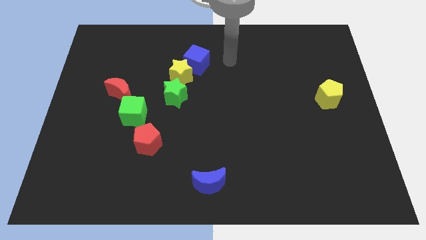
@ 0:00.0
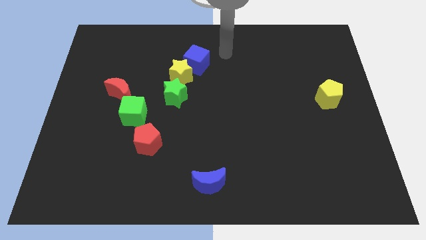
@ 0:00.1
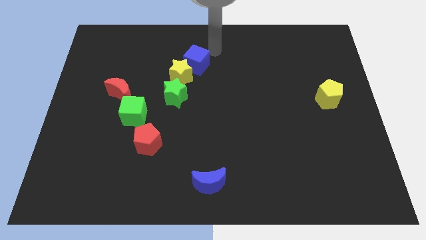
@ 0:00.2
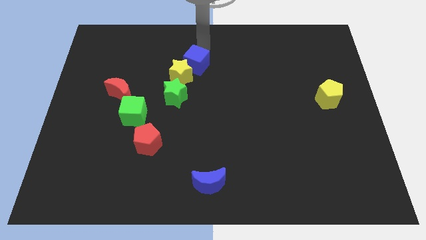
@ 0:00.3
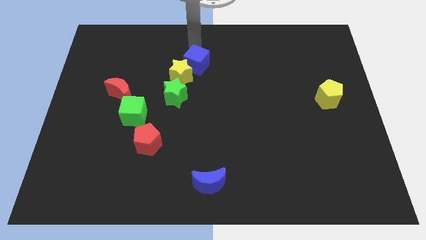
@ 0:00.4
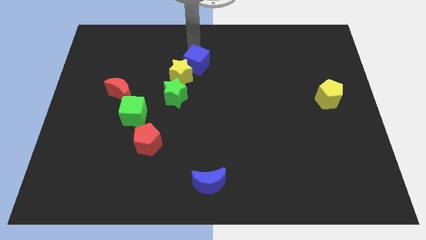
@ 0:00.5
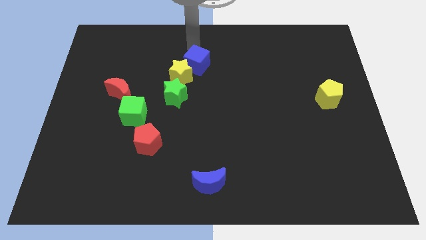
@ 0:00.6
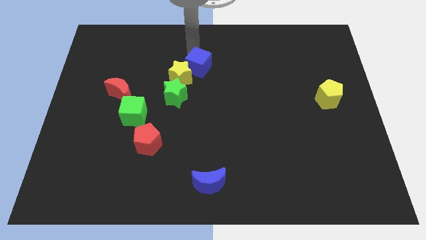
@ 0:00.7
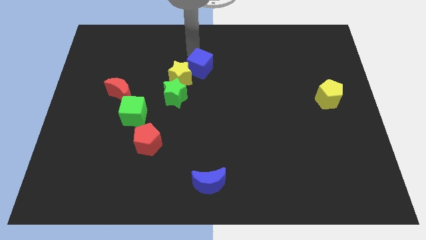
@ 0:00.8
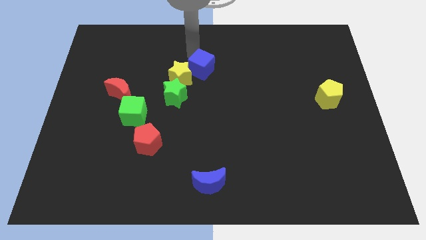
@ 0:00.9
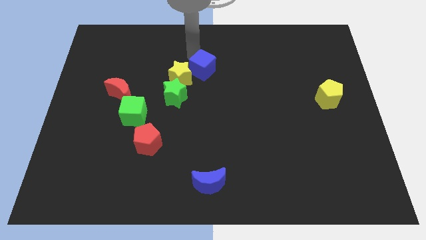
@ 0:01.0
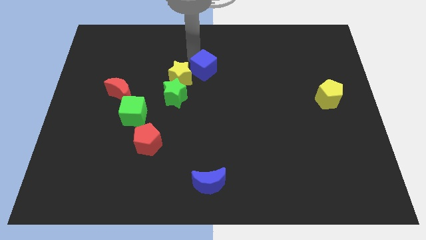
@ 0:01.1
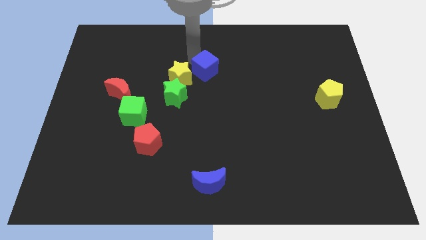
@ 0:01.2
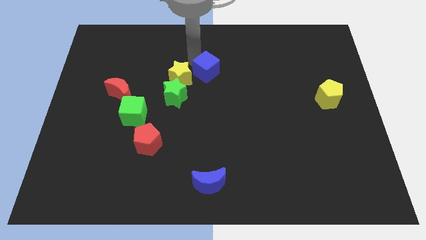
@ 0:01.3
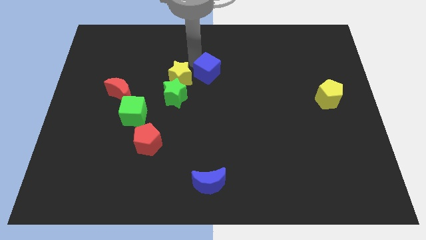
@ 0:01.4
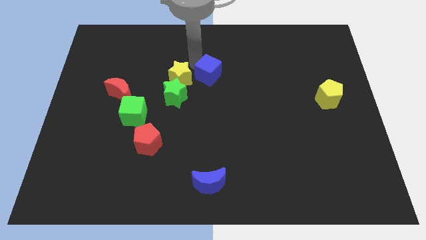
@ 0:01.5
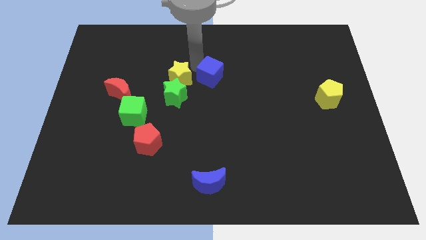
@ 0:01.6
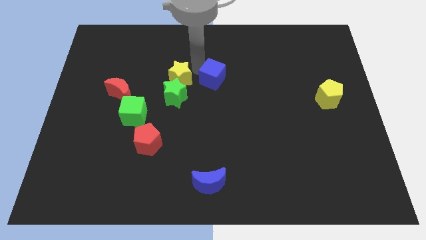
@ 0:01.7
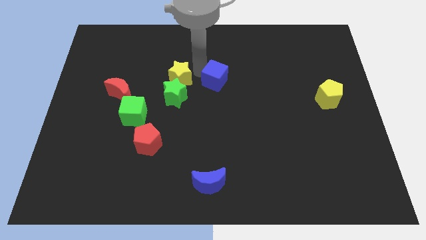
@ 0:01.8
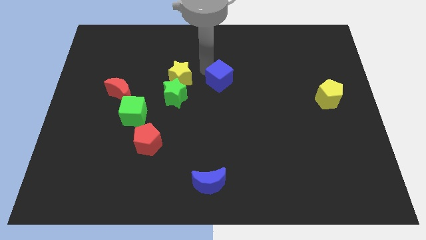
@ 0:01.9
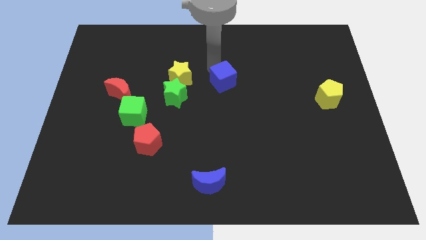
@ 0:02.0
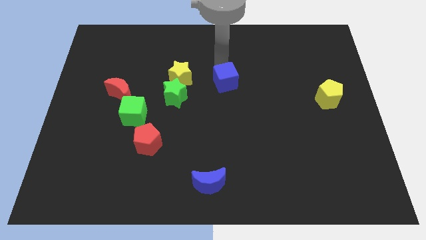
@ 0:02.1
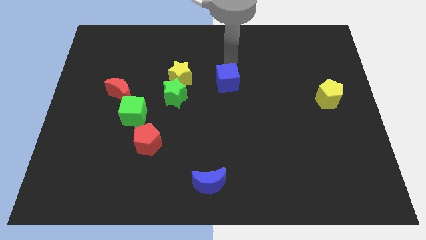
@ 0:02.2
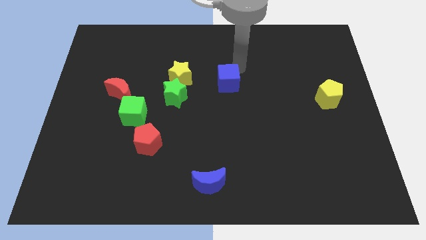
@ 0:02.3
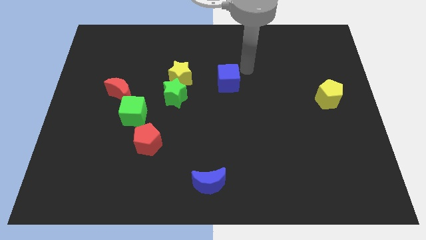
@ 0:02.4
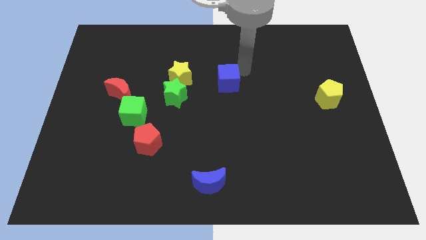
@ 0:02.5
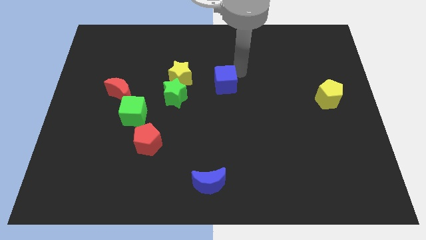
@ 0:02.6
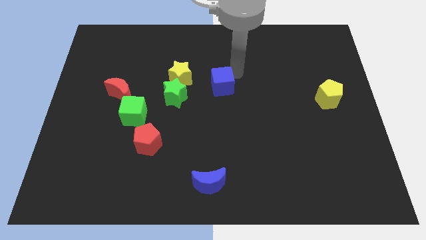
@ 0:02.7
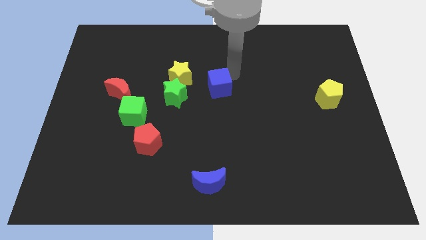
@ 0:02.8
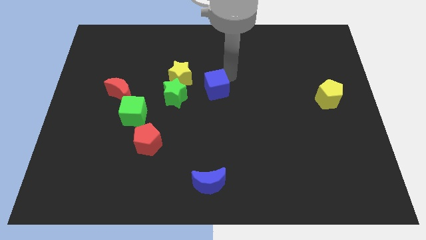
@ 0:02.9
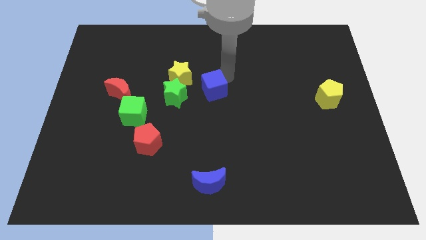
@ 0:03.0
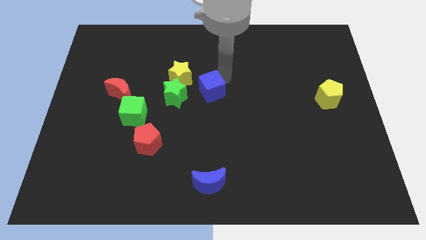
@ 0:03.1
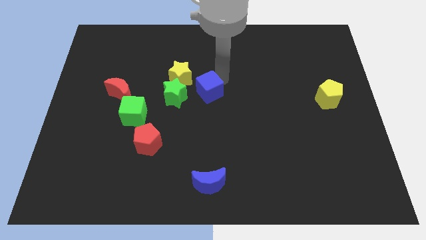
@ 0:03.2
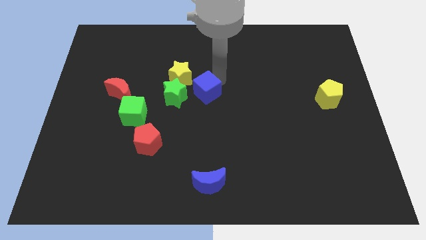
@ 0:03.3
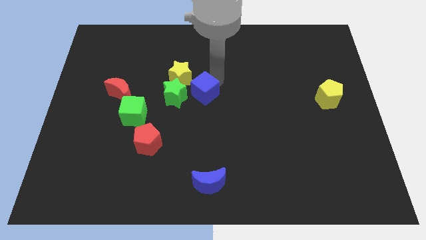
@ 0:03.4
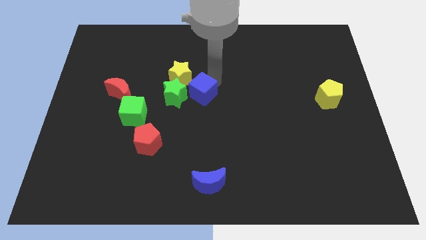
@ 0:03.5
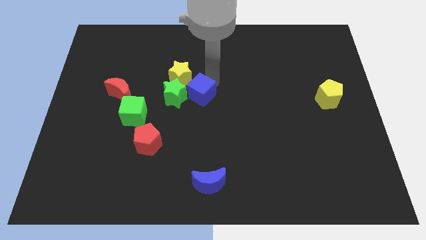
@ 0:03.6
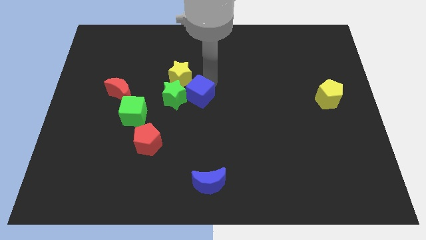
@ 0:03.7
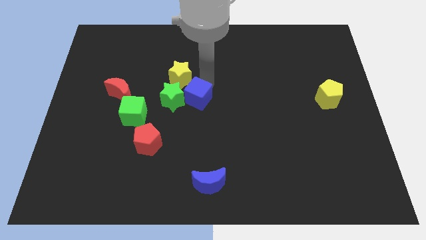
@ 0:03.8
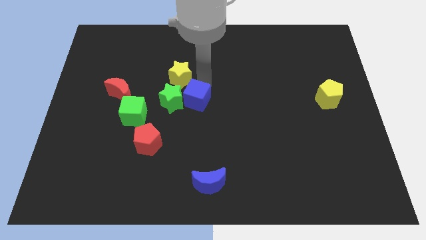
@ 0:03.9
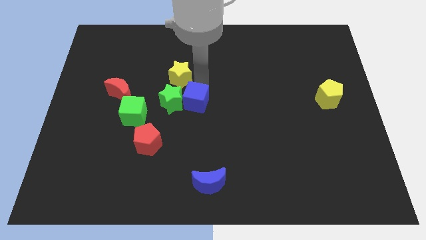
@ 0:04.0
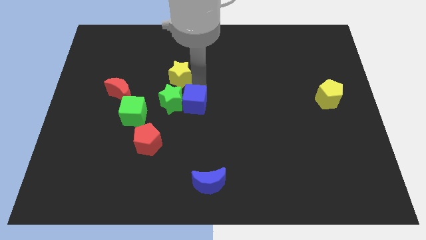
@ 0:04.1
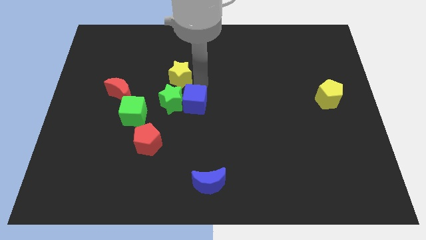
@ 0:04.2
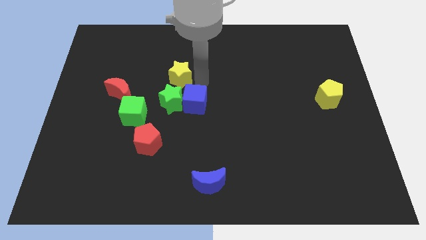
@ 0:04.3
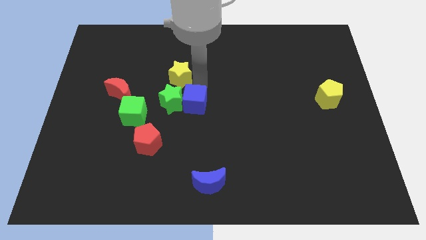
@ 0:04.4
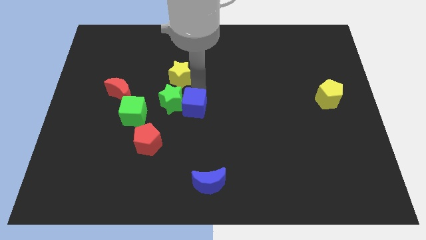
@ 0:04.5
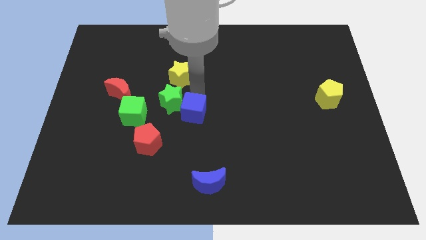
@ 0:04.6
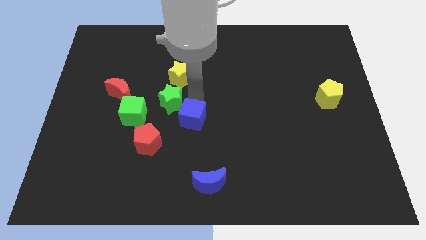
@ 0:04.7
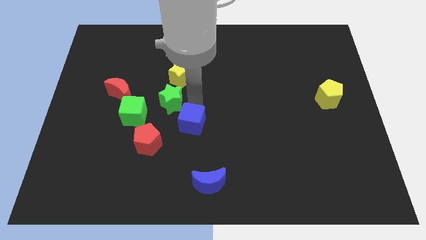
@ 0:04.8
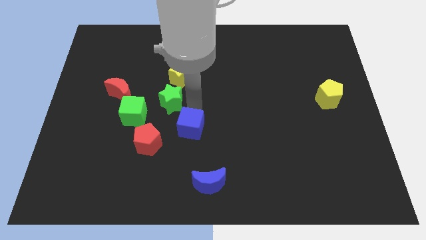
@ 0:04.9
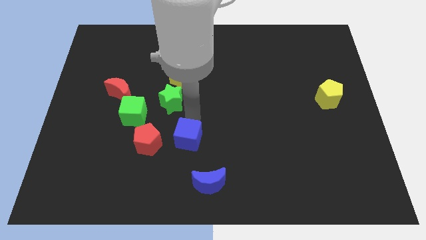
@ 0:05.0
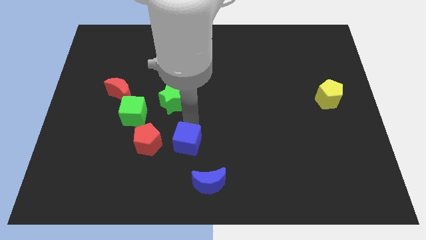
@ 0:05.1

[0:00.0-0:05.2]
push the blue cube to the top left of the blue moon
